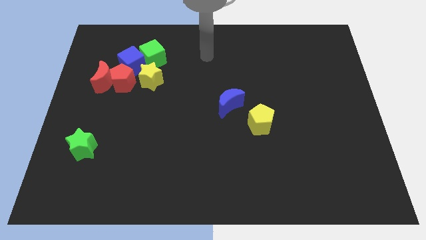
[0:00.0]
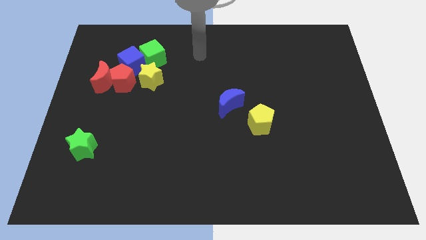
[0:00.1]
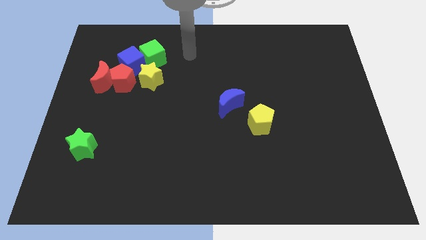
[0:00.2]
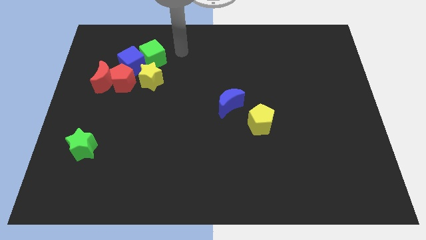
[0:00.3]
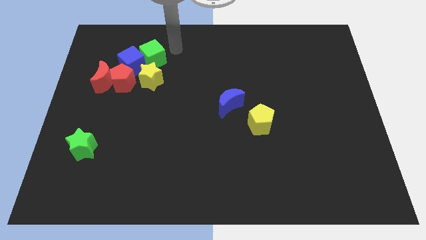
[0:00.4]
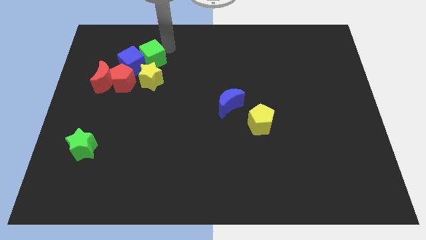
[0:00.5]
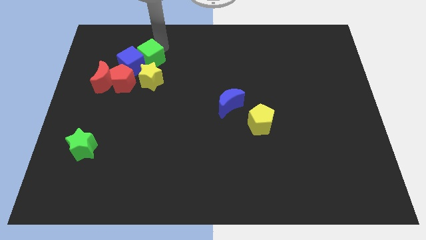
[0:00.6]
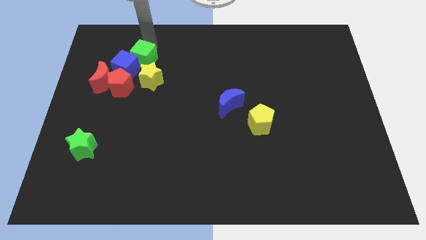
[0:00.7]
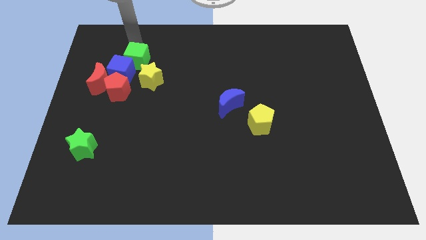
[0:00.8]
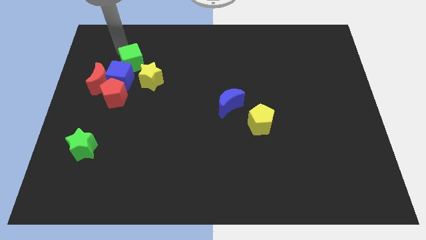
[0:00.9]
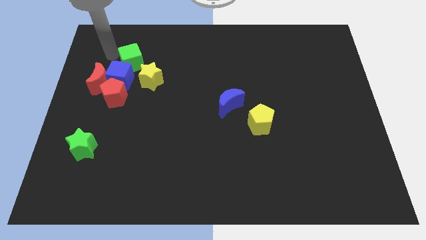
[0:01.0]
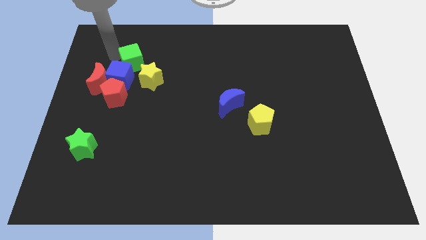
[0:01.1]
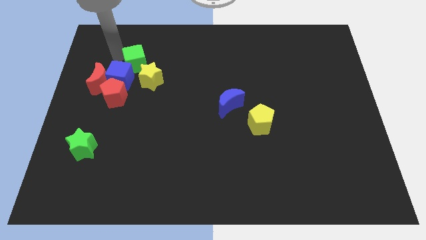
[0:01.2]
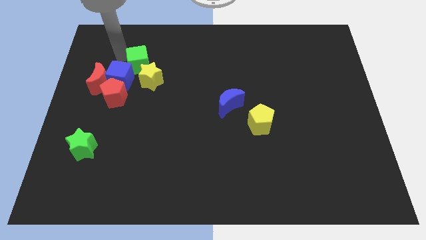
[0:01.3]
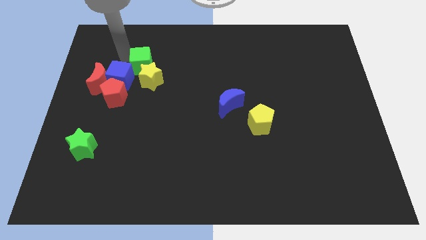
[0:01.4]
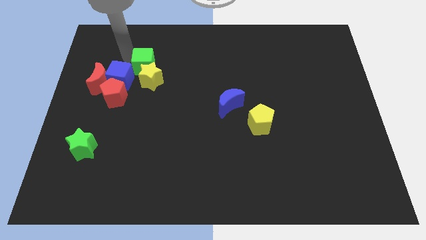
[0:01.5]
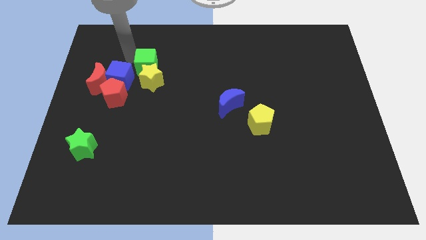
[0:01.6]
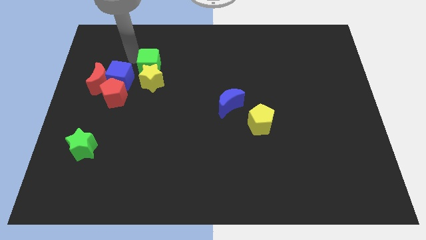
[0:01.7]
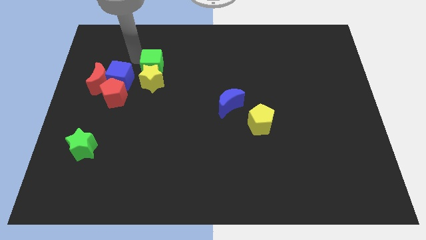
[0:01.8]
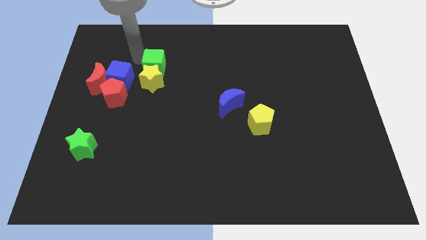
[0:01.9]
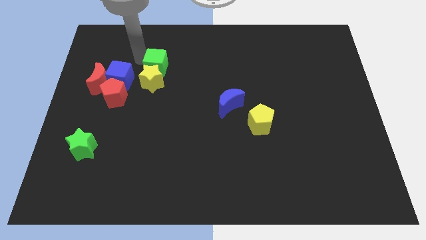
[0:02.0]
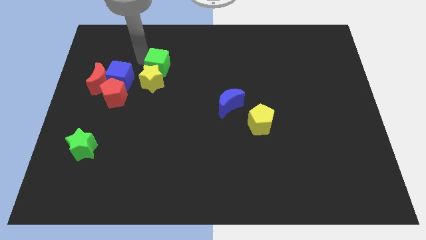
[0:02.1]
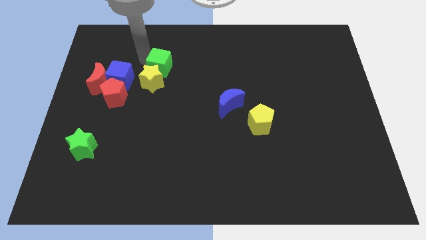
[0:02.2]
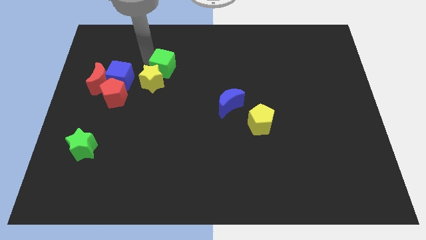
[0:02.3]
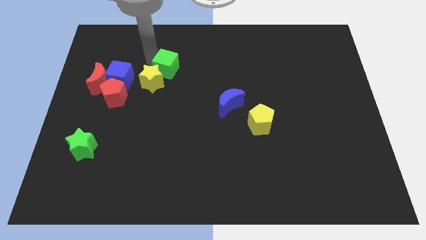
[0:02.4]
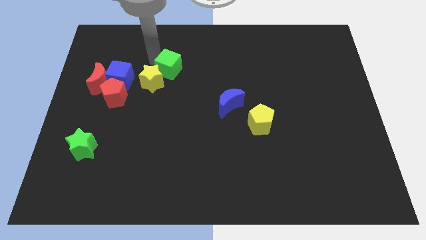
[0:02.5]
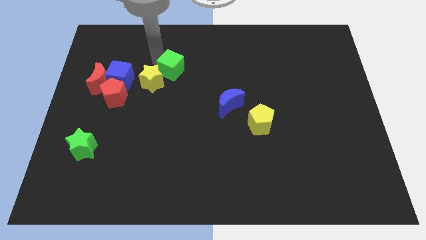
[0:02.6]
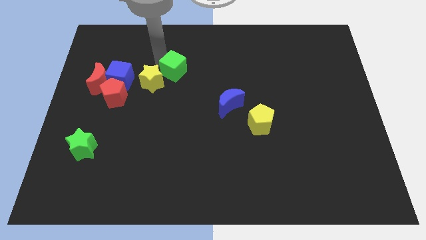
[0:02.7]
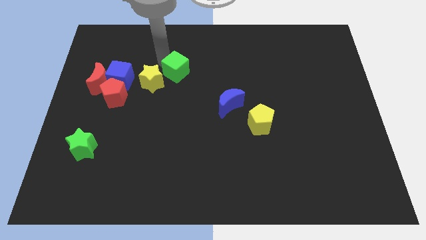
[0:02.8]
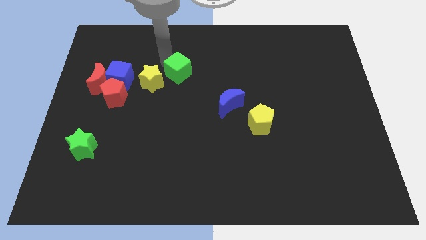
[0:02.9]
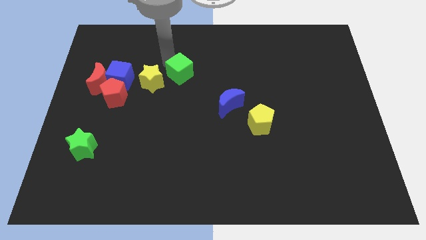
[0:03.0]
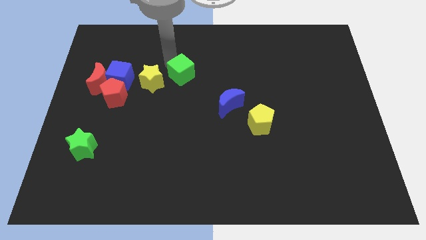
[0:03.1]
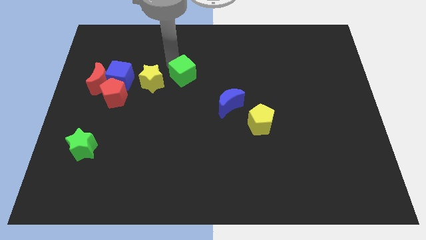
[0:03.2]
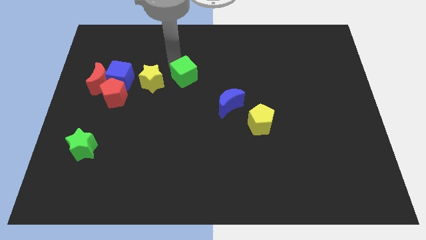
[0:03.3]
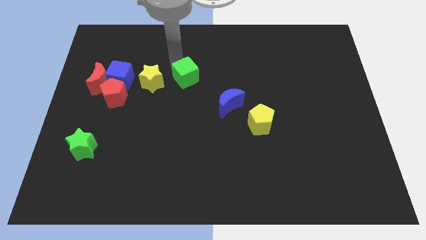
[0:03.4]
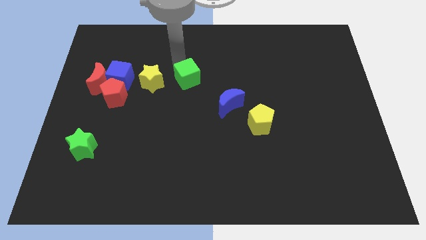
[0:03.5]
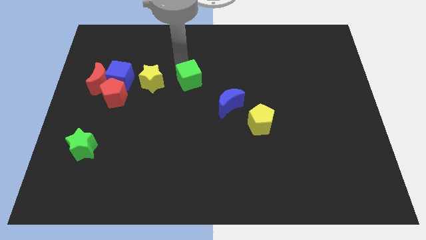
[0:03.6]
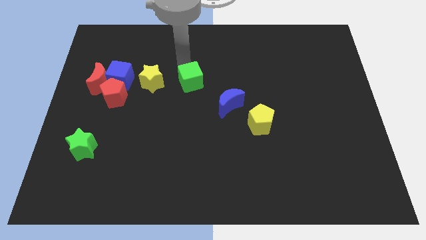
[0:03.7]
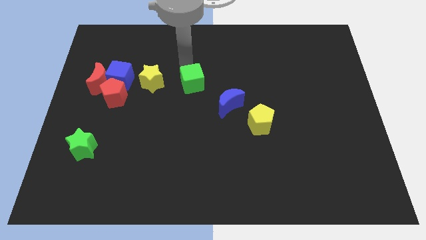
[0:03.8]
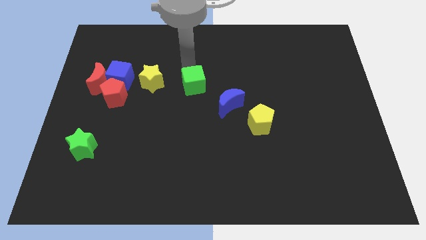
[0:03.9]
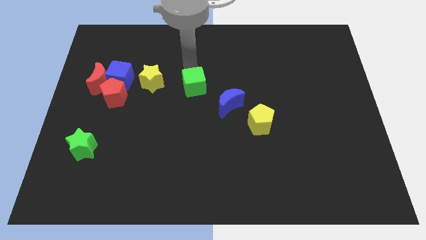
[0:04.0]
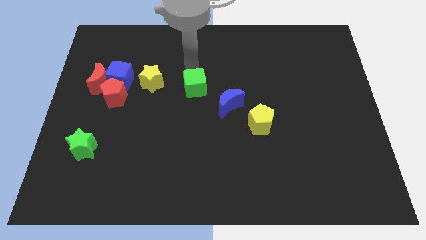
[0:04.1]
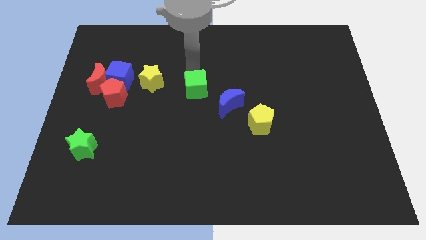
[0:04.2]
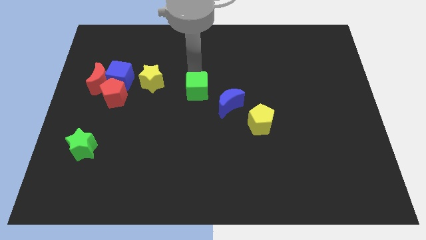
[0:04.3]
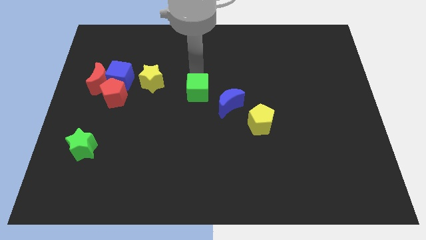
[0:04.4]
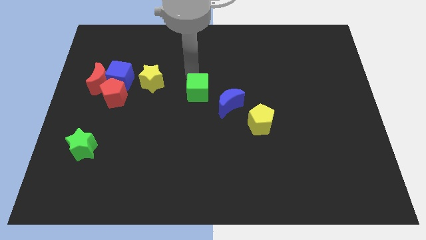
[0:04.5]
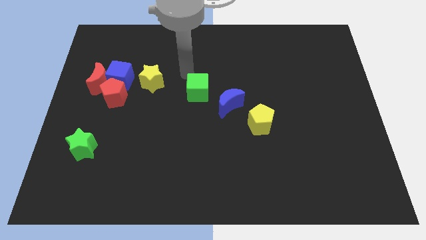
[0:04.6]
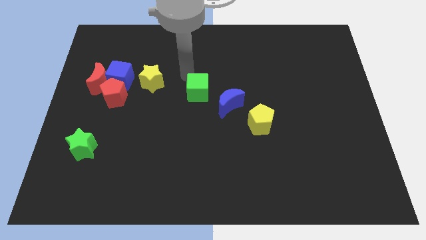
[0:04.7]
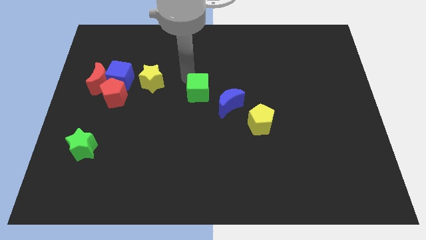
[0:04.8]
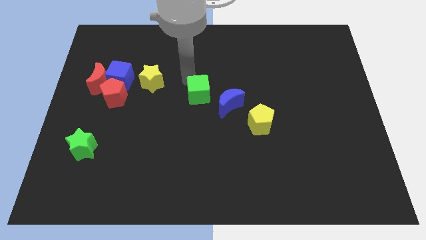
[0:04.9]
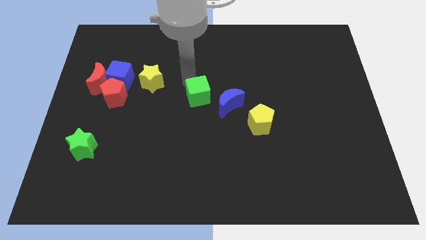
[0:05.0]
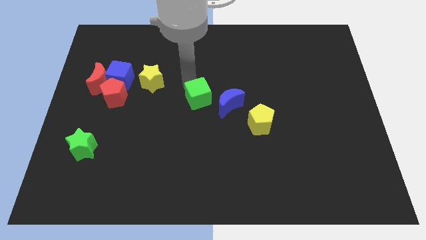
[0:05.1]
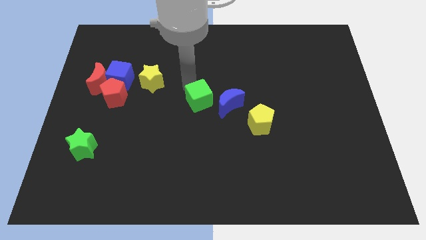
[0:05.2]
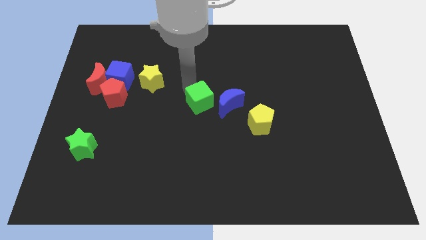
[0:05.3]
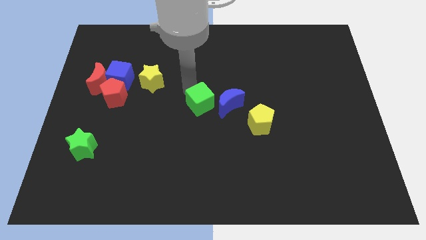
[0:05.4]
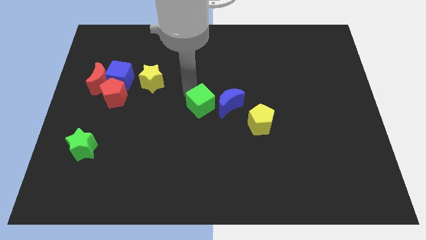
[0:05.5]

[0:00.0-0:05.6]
push the green cube down and then to the right

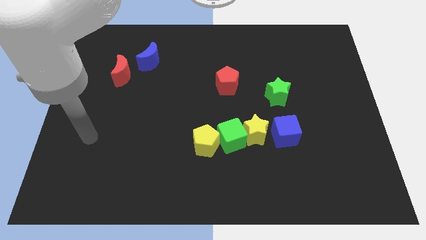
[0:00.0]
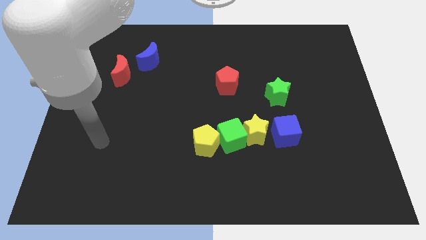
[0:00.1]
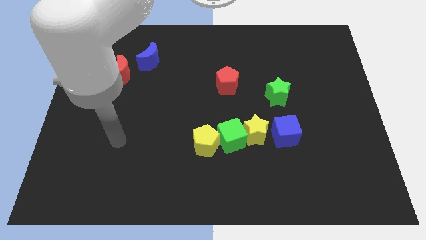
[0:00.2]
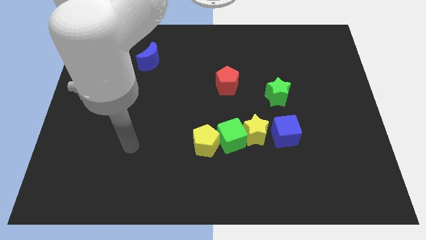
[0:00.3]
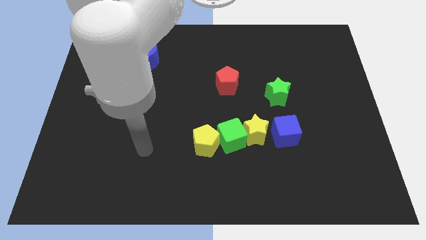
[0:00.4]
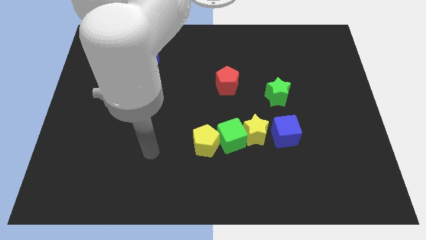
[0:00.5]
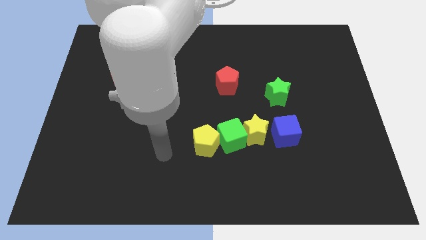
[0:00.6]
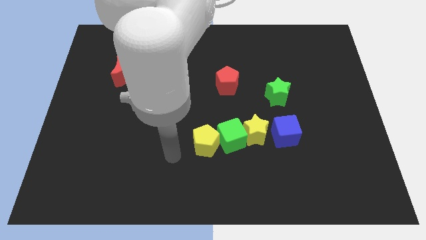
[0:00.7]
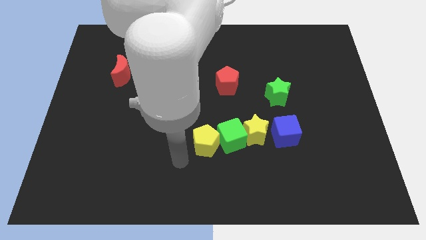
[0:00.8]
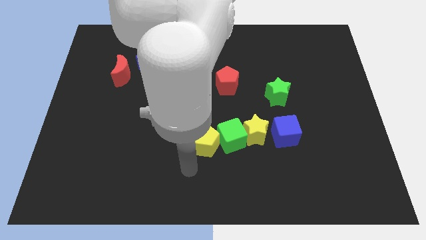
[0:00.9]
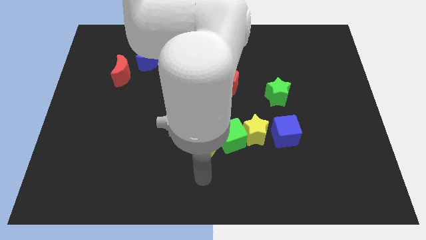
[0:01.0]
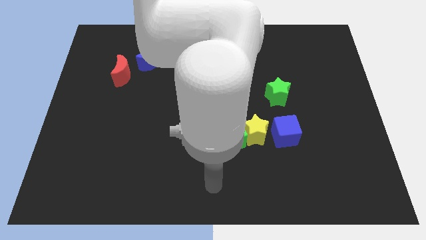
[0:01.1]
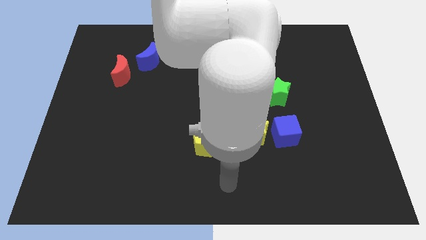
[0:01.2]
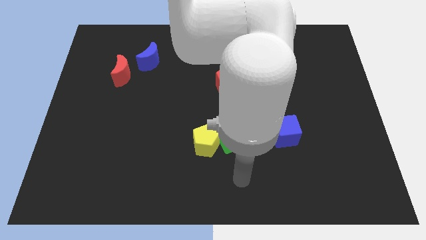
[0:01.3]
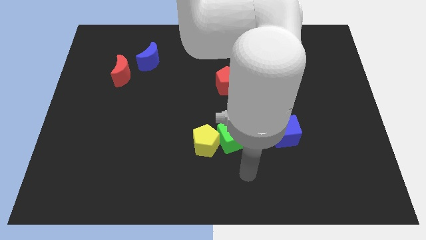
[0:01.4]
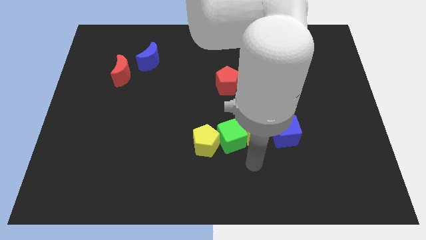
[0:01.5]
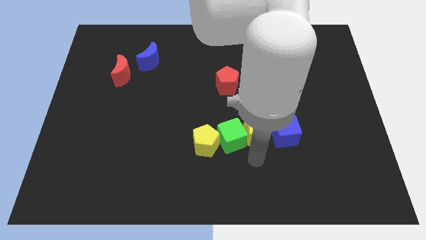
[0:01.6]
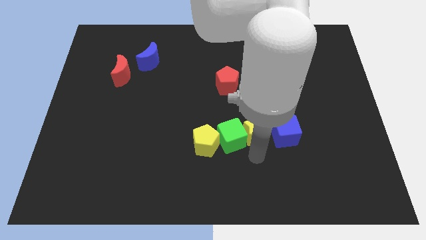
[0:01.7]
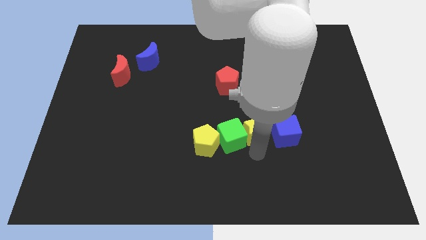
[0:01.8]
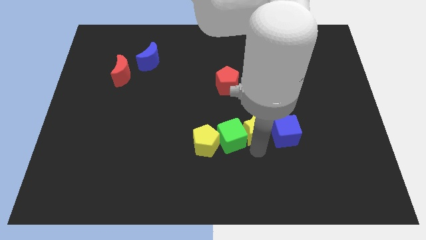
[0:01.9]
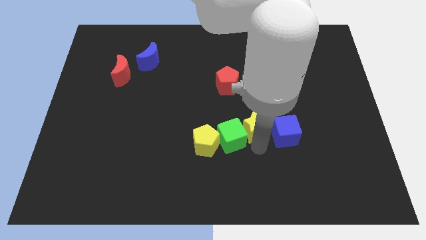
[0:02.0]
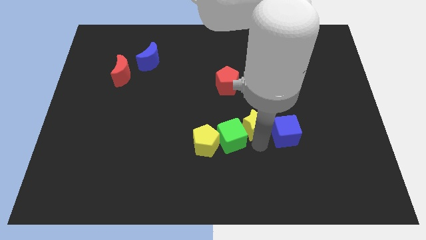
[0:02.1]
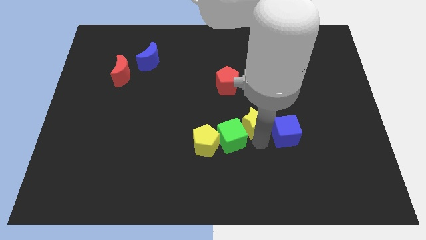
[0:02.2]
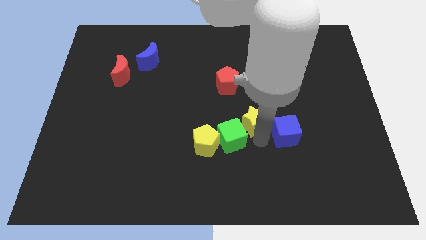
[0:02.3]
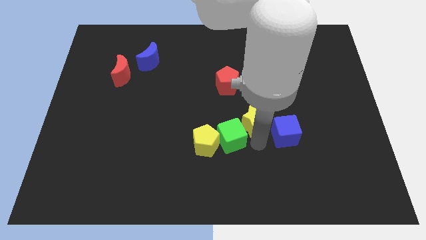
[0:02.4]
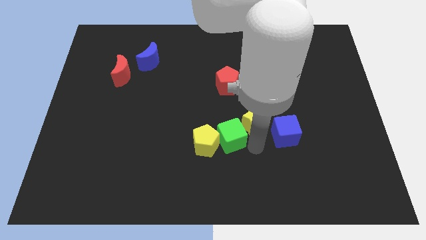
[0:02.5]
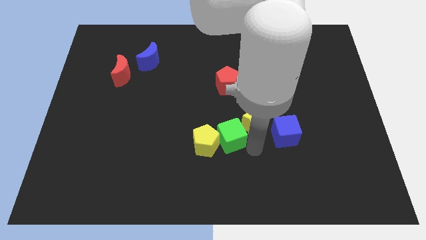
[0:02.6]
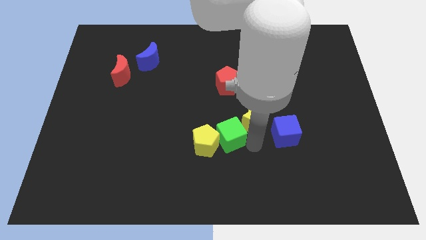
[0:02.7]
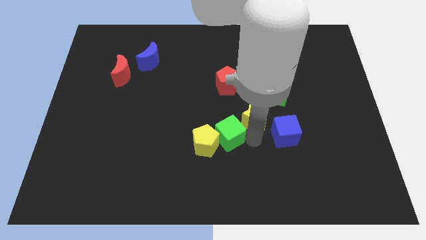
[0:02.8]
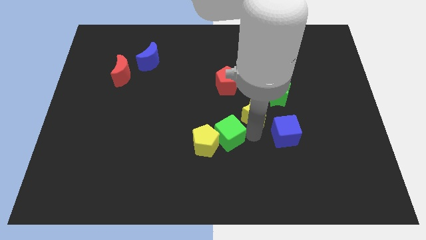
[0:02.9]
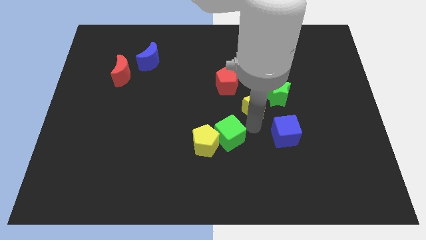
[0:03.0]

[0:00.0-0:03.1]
push the yellow star a little up
